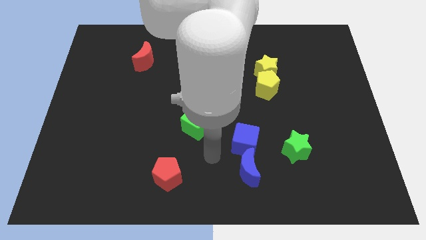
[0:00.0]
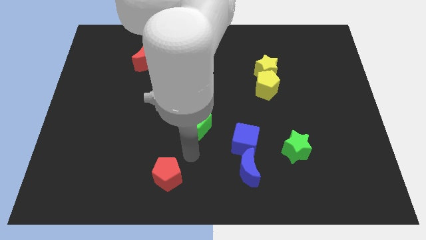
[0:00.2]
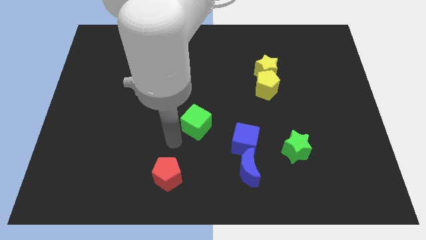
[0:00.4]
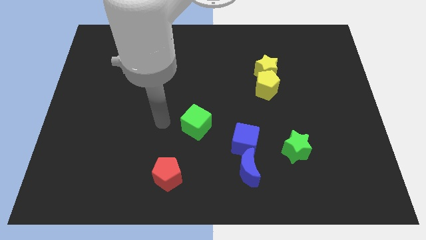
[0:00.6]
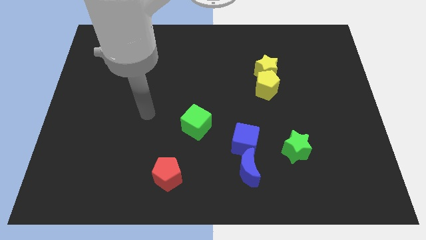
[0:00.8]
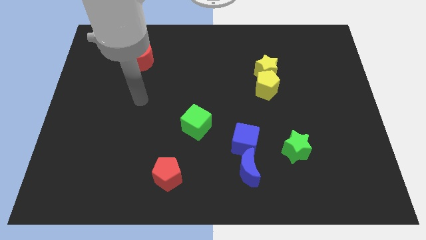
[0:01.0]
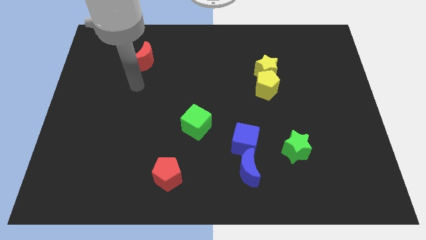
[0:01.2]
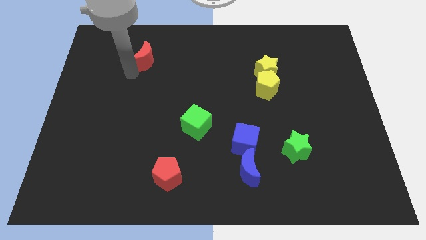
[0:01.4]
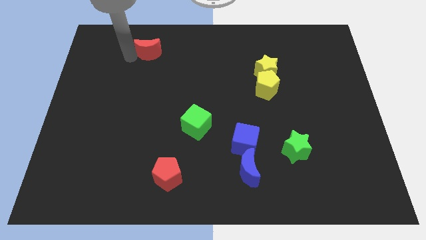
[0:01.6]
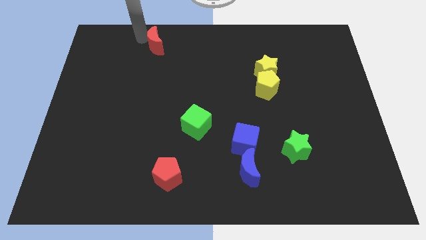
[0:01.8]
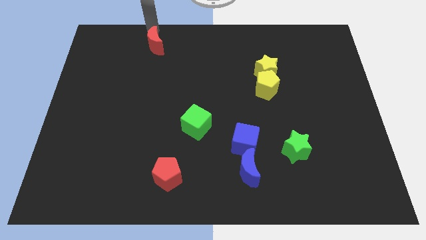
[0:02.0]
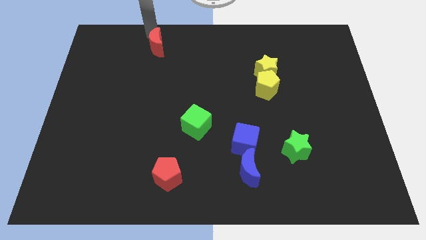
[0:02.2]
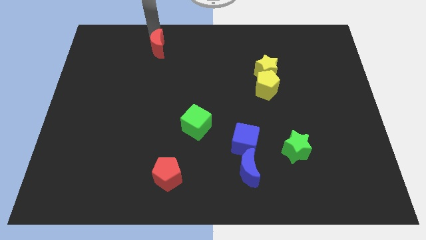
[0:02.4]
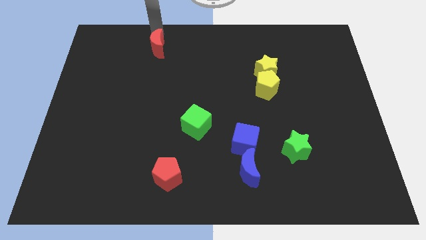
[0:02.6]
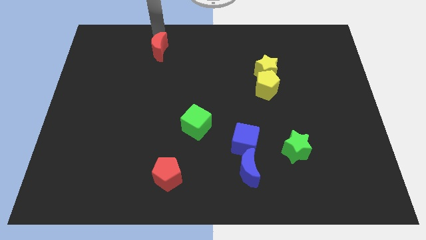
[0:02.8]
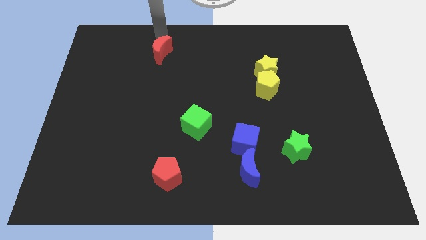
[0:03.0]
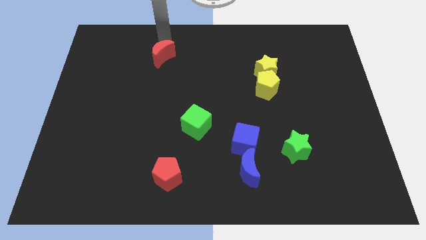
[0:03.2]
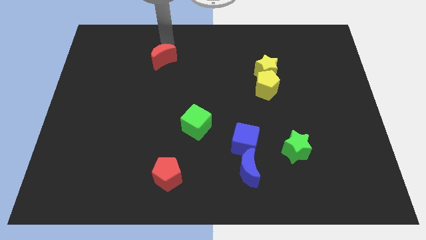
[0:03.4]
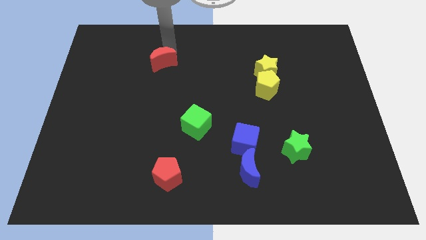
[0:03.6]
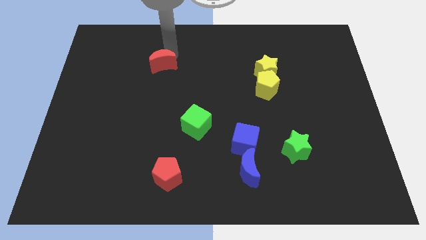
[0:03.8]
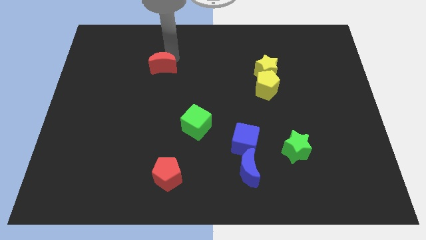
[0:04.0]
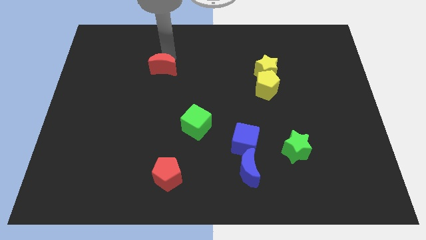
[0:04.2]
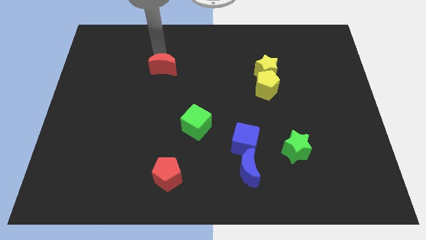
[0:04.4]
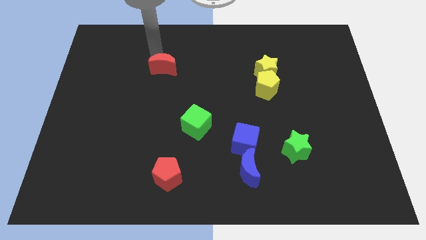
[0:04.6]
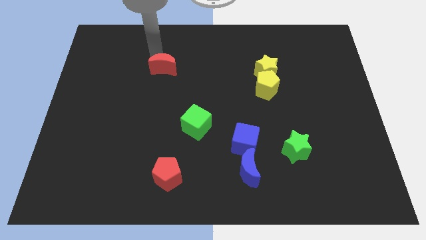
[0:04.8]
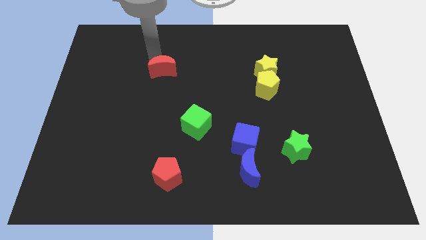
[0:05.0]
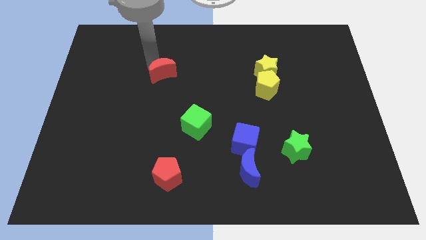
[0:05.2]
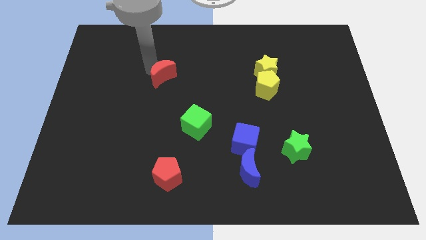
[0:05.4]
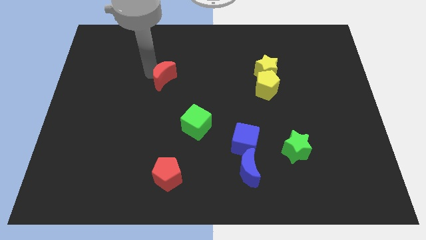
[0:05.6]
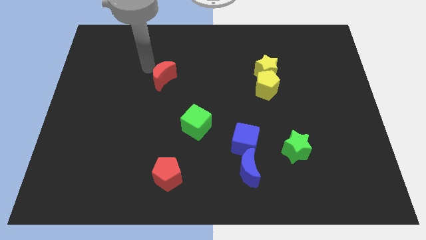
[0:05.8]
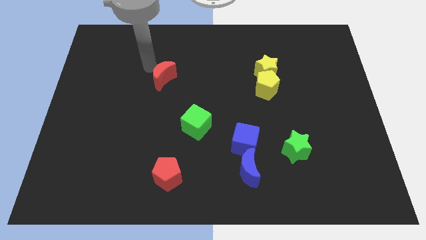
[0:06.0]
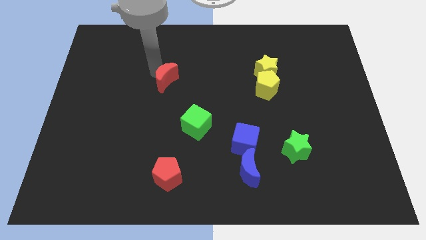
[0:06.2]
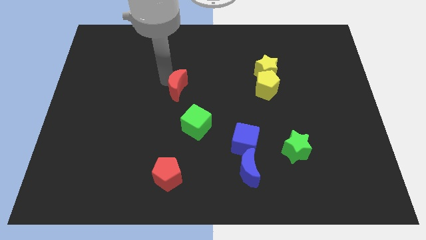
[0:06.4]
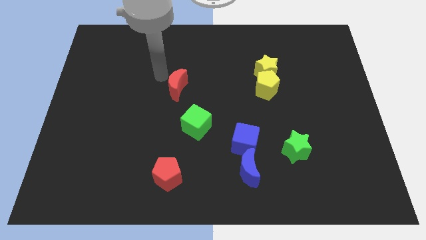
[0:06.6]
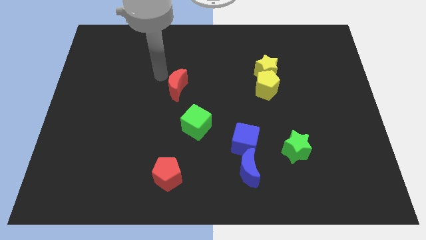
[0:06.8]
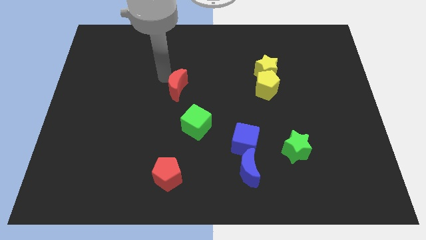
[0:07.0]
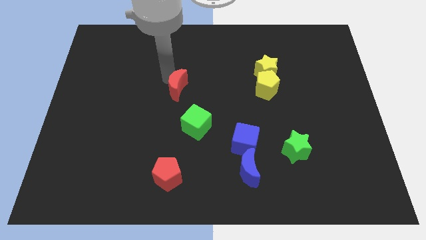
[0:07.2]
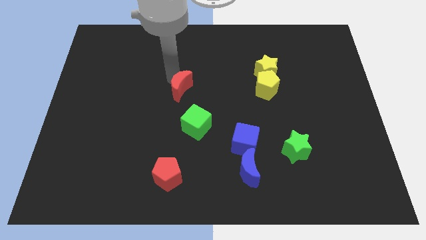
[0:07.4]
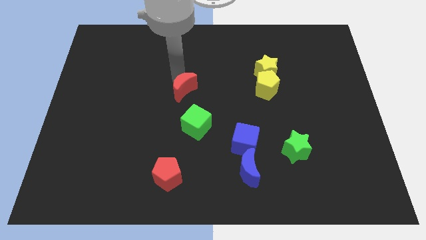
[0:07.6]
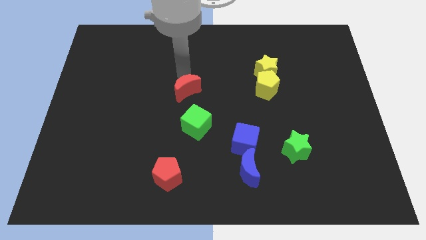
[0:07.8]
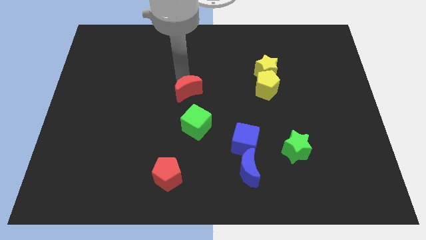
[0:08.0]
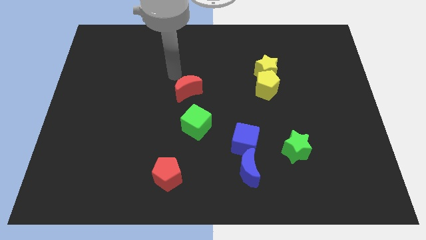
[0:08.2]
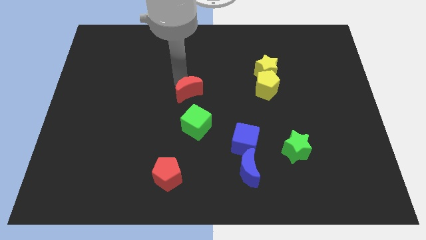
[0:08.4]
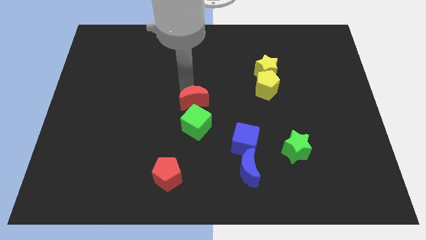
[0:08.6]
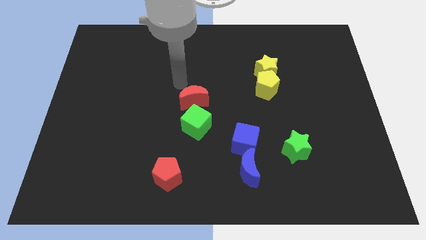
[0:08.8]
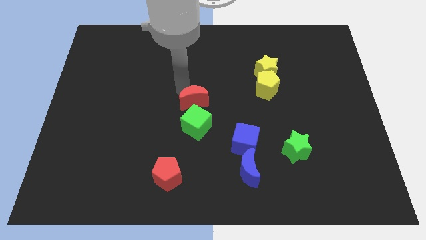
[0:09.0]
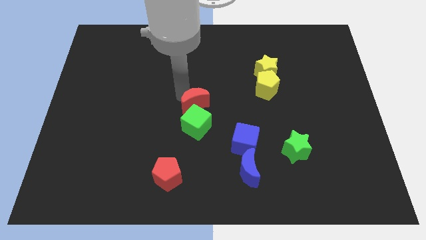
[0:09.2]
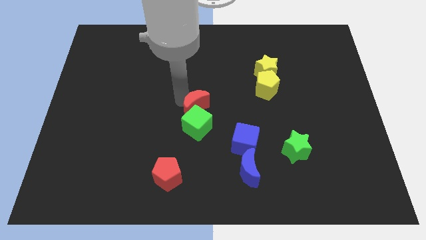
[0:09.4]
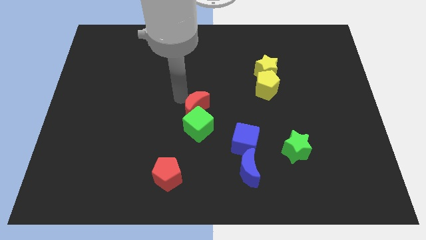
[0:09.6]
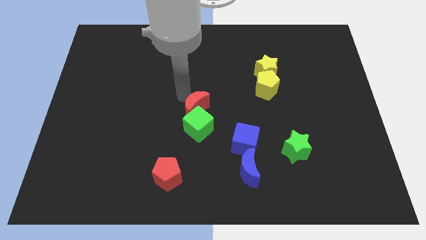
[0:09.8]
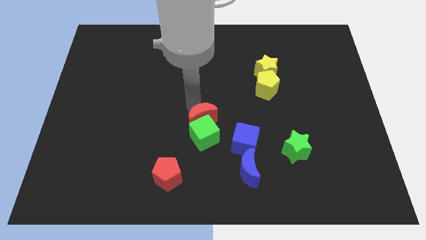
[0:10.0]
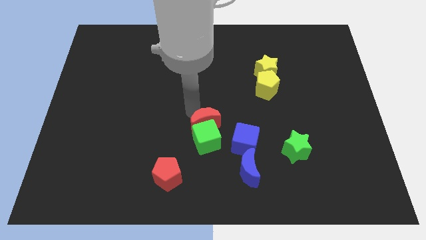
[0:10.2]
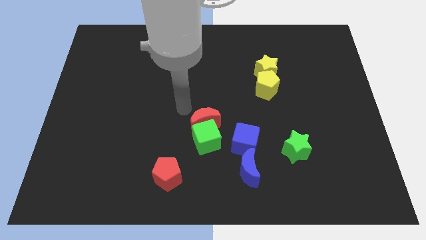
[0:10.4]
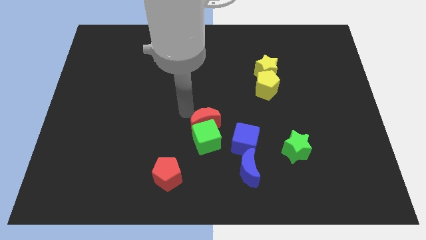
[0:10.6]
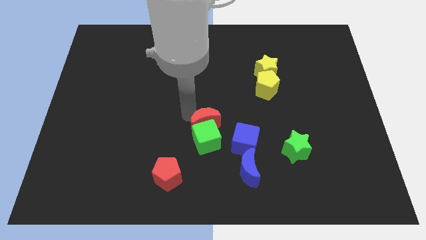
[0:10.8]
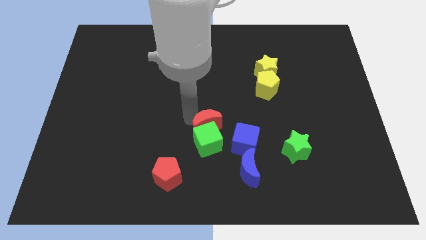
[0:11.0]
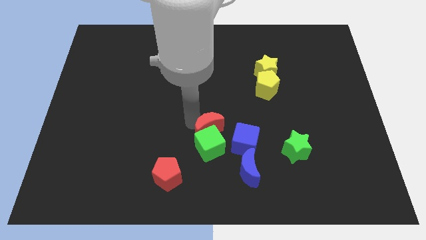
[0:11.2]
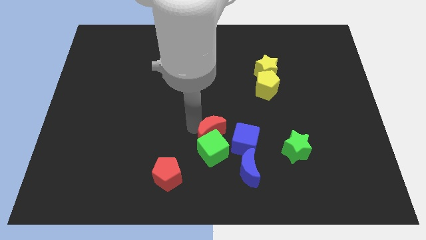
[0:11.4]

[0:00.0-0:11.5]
push the red moon to the top left of the blue moon

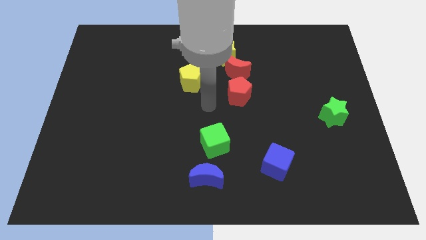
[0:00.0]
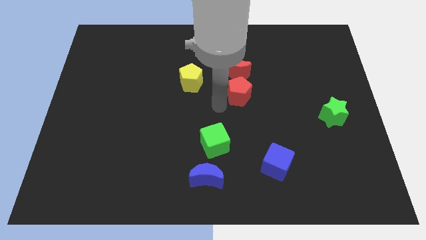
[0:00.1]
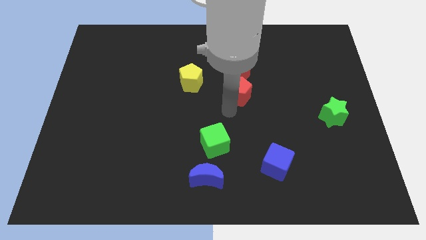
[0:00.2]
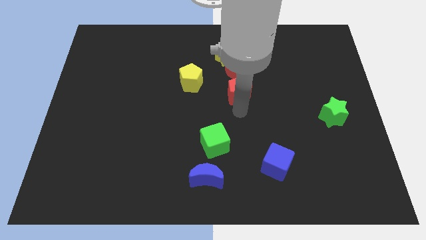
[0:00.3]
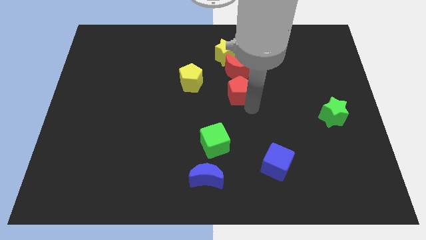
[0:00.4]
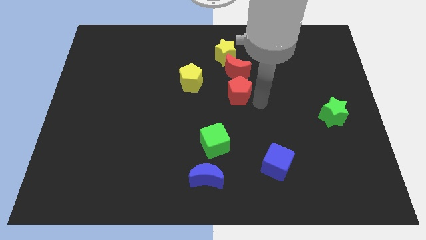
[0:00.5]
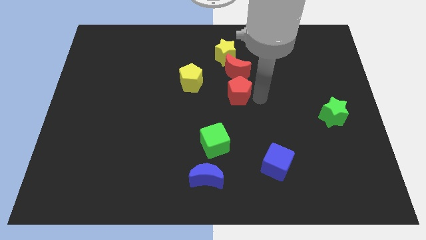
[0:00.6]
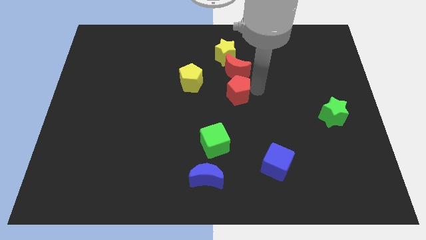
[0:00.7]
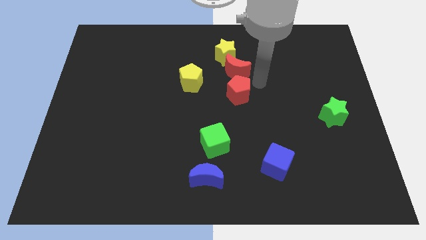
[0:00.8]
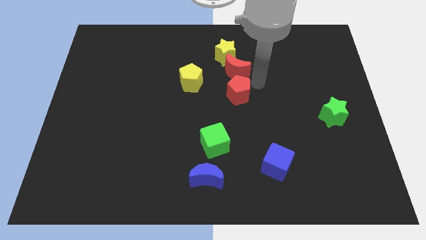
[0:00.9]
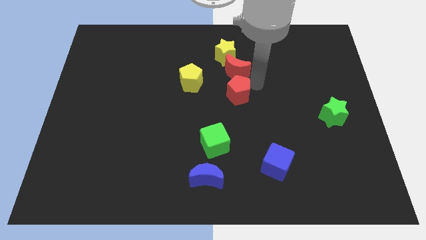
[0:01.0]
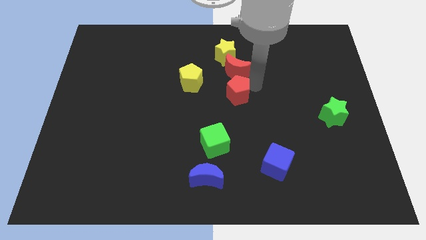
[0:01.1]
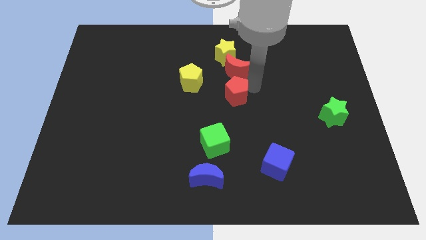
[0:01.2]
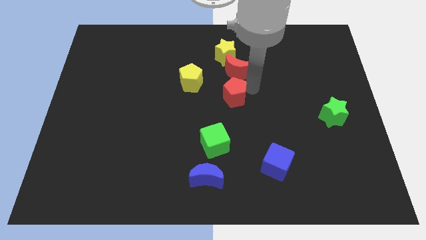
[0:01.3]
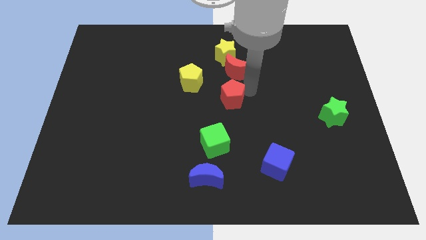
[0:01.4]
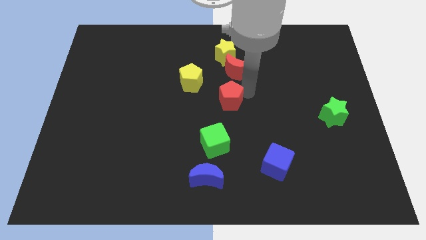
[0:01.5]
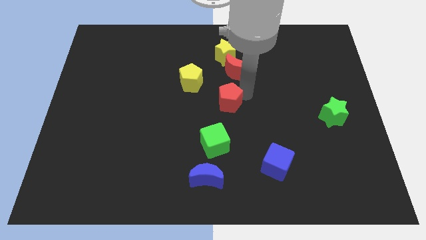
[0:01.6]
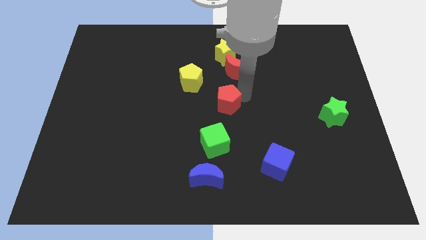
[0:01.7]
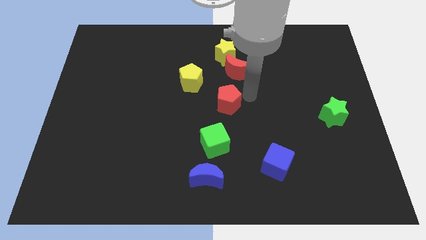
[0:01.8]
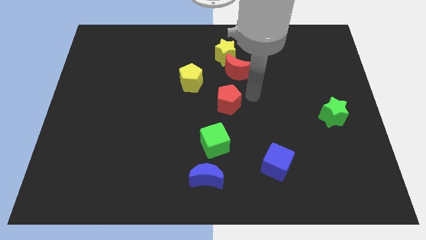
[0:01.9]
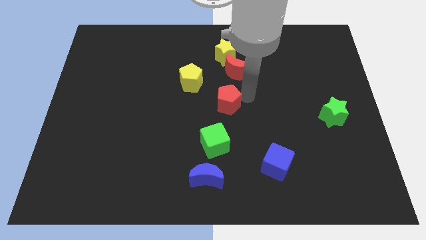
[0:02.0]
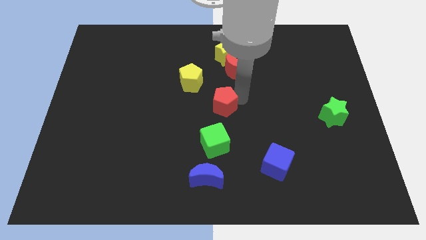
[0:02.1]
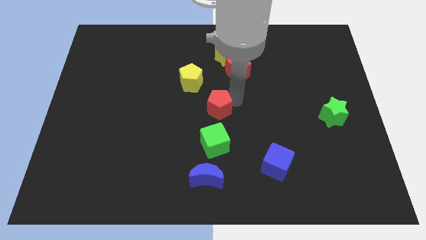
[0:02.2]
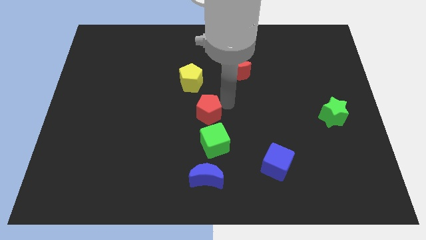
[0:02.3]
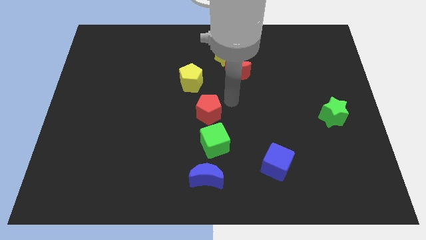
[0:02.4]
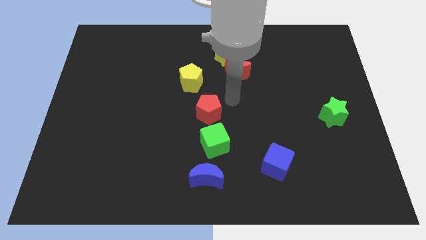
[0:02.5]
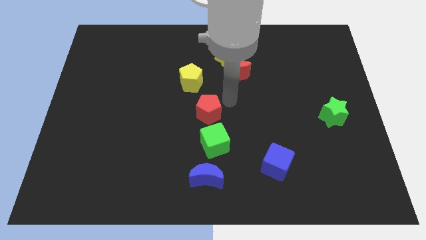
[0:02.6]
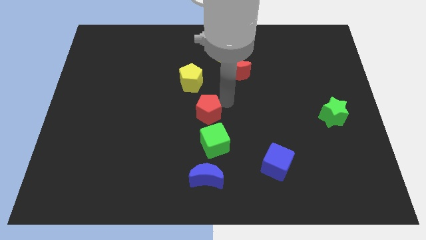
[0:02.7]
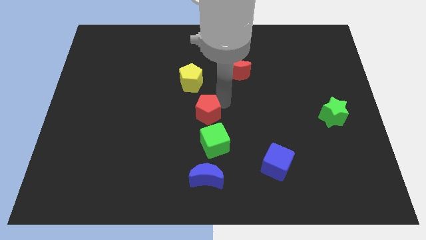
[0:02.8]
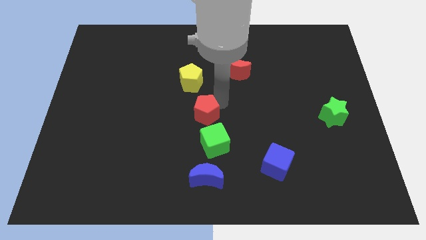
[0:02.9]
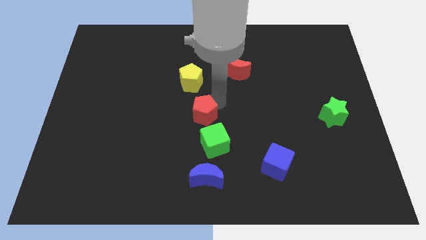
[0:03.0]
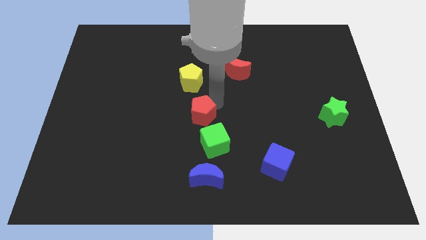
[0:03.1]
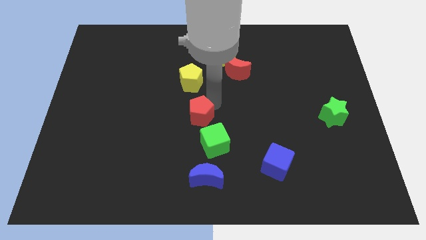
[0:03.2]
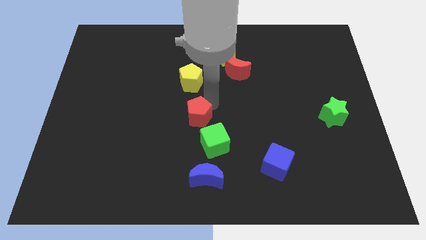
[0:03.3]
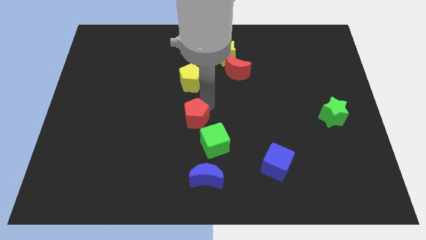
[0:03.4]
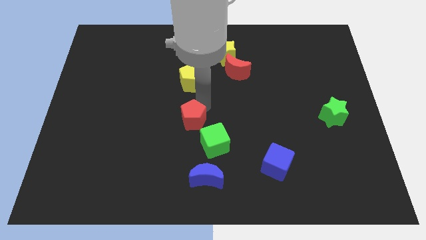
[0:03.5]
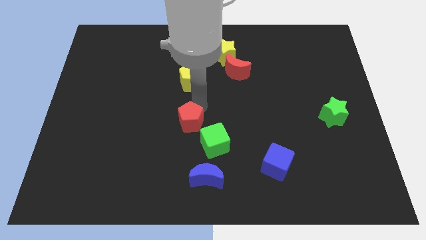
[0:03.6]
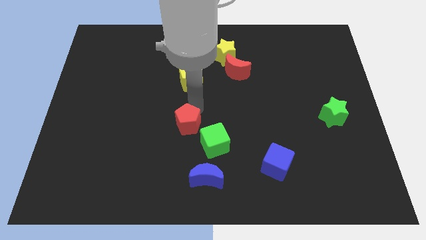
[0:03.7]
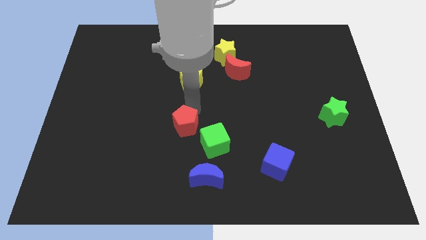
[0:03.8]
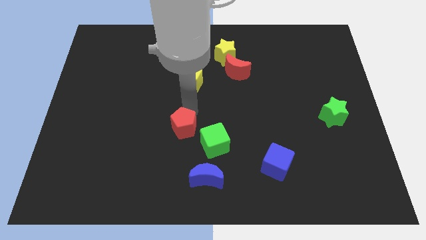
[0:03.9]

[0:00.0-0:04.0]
put the red pentagon to the left of the green cube
